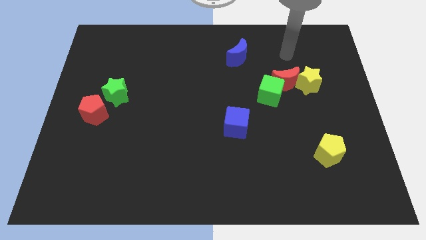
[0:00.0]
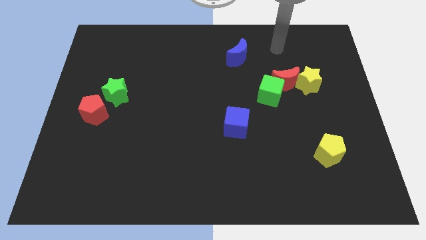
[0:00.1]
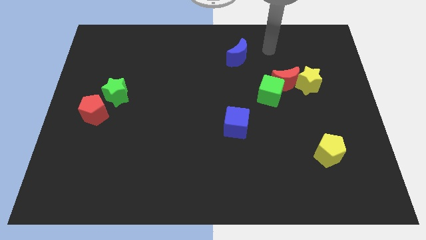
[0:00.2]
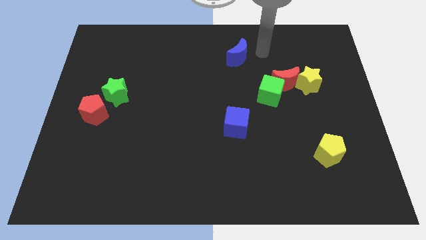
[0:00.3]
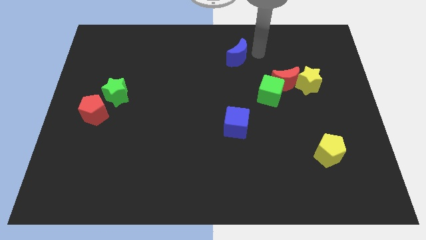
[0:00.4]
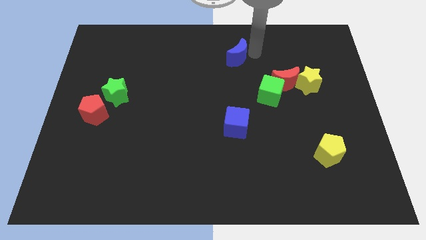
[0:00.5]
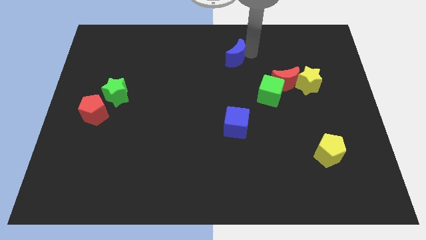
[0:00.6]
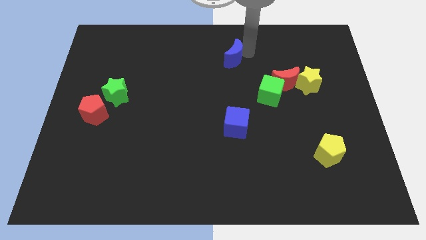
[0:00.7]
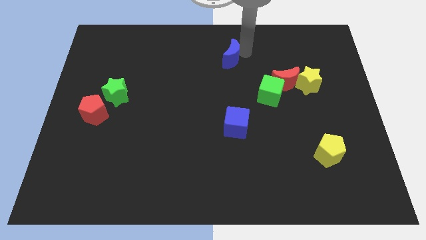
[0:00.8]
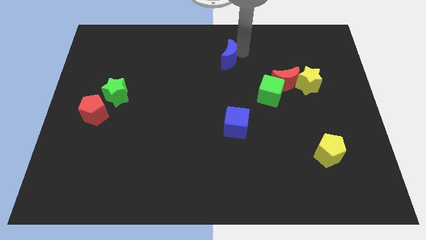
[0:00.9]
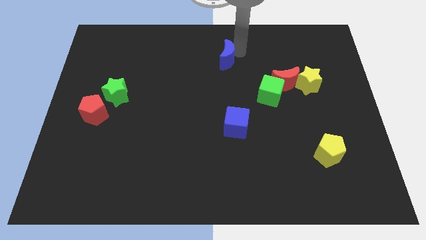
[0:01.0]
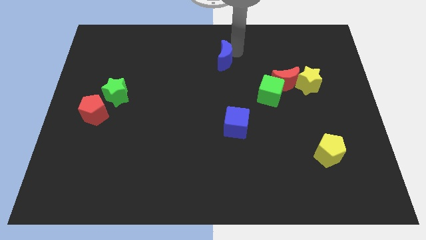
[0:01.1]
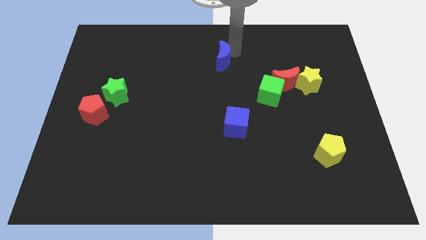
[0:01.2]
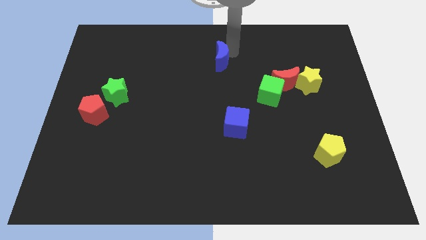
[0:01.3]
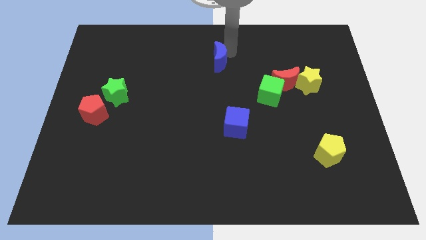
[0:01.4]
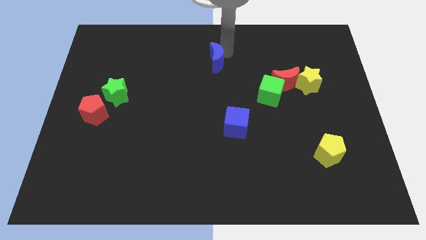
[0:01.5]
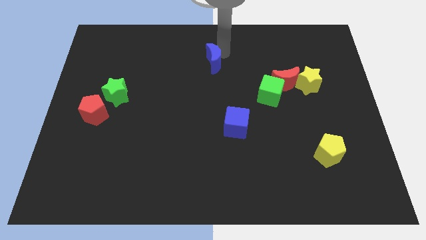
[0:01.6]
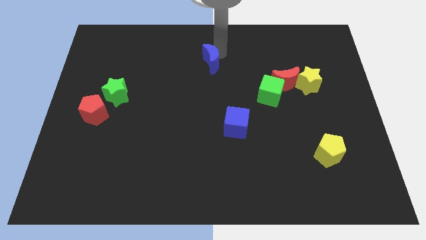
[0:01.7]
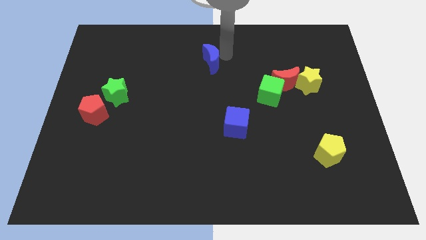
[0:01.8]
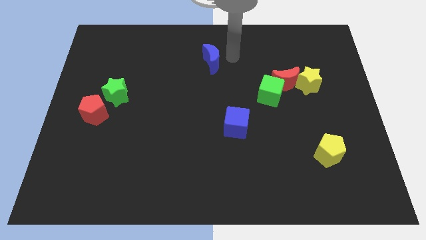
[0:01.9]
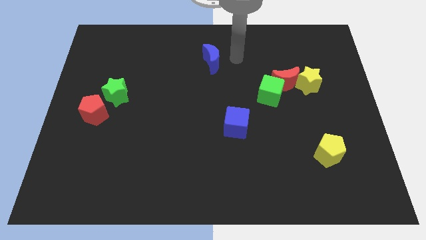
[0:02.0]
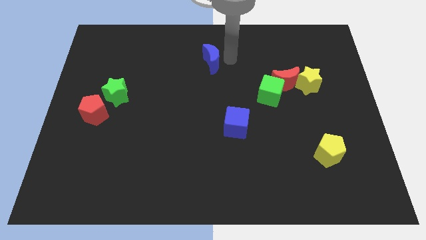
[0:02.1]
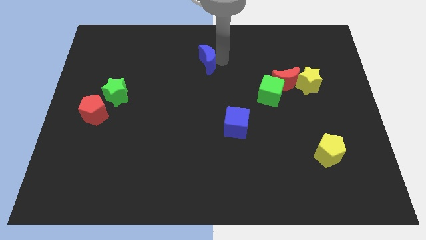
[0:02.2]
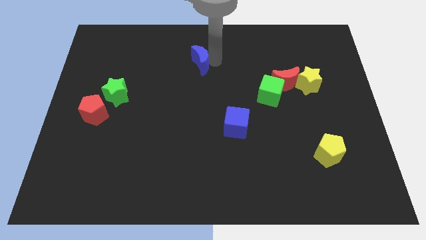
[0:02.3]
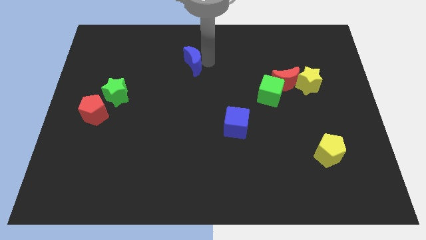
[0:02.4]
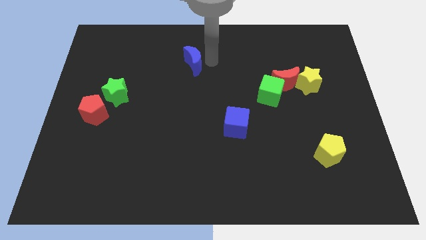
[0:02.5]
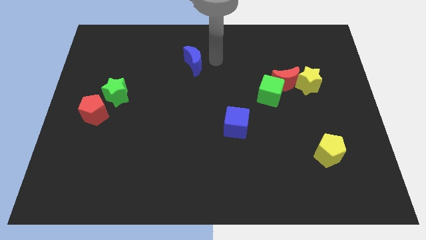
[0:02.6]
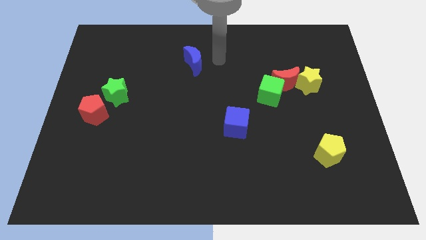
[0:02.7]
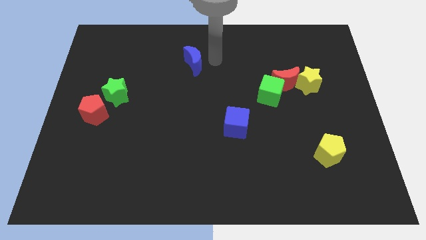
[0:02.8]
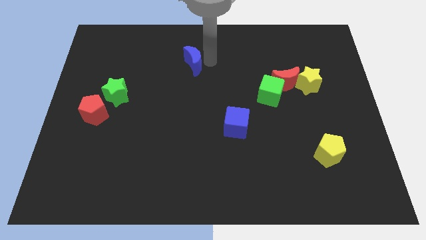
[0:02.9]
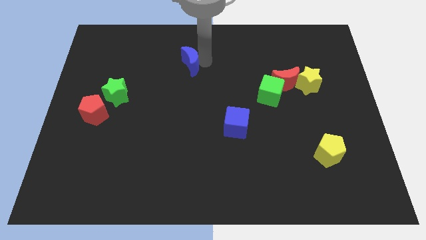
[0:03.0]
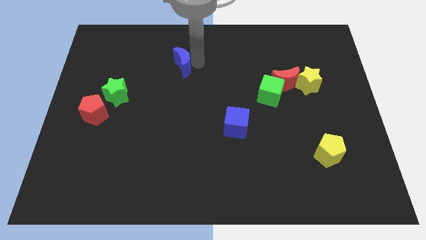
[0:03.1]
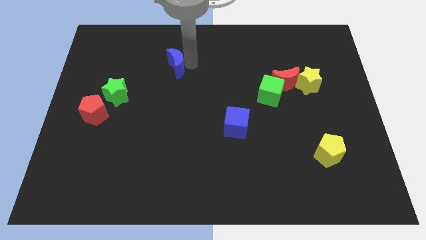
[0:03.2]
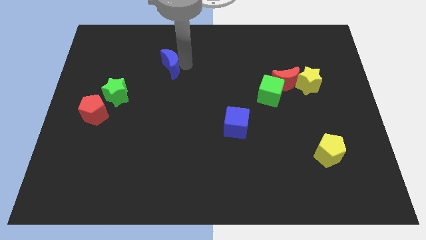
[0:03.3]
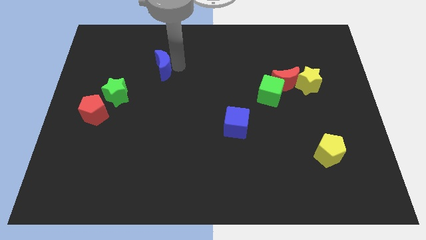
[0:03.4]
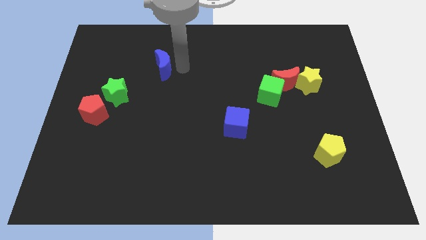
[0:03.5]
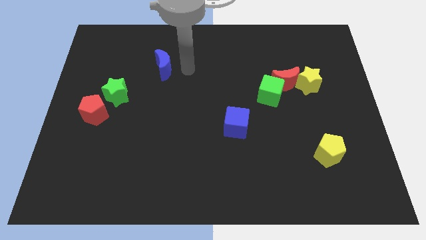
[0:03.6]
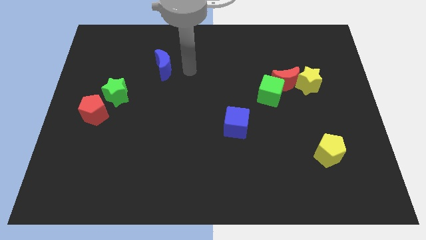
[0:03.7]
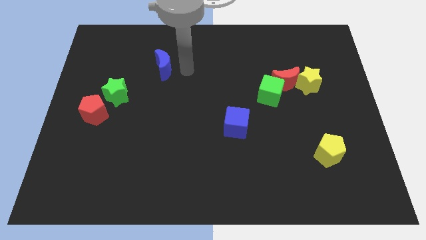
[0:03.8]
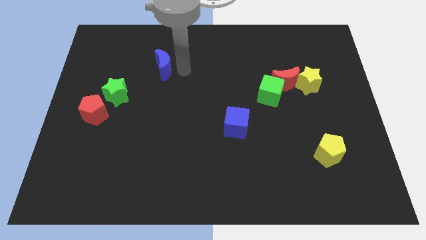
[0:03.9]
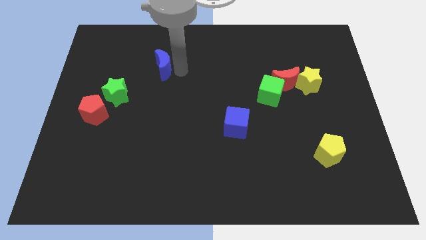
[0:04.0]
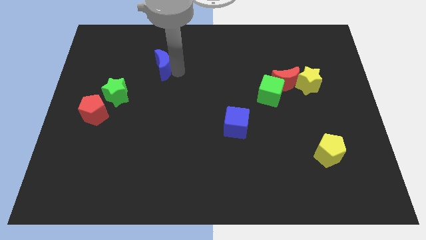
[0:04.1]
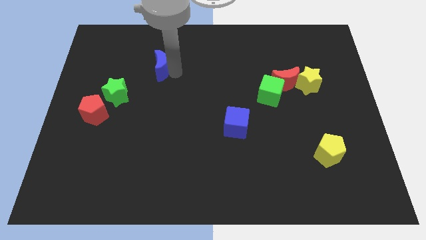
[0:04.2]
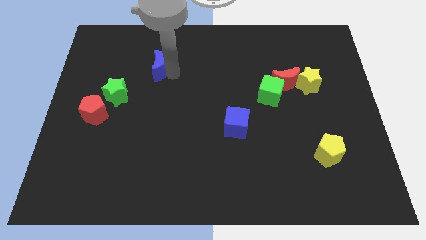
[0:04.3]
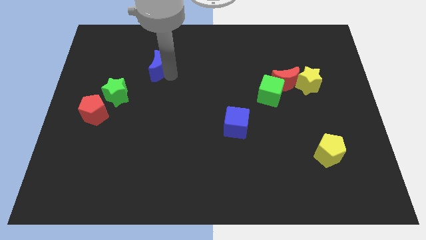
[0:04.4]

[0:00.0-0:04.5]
slide the blue moon to the left

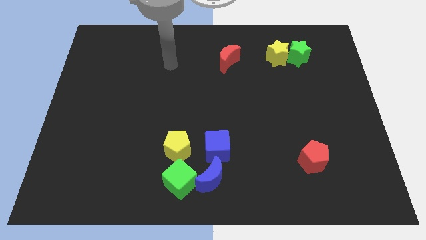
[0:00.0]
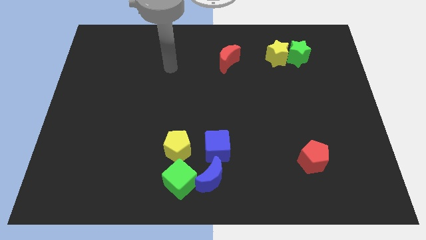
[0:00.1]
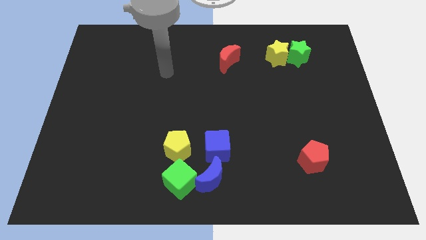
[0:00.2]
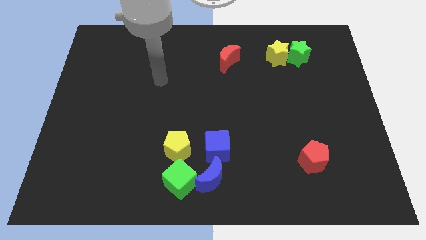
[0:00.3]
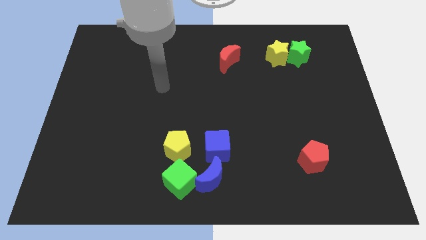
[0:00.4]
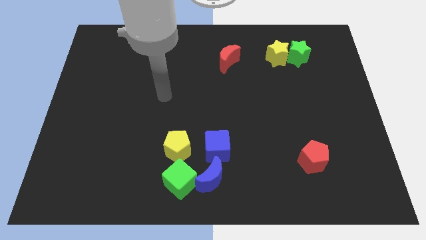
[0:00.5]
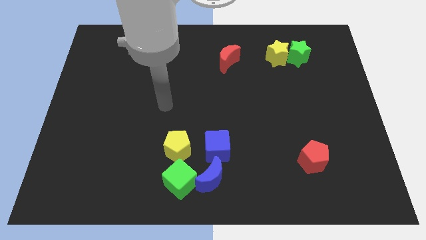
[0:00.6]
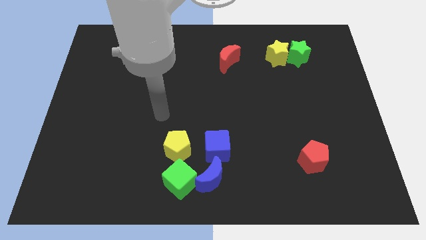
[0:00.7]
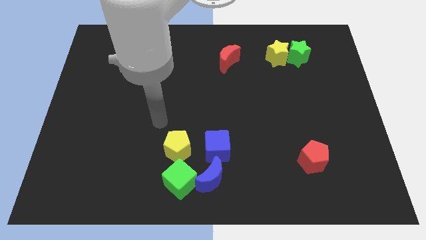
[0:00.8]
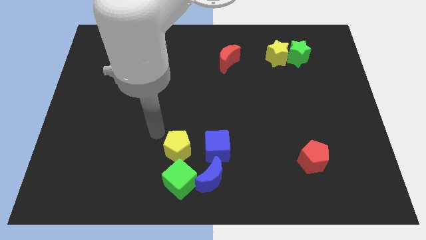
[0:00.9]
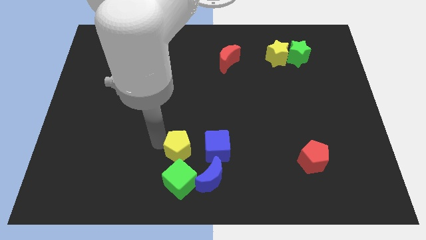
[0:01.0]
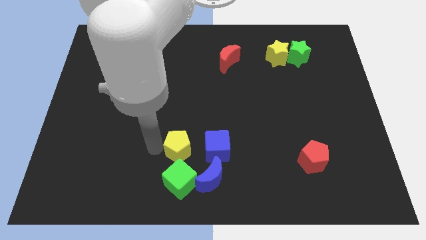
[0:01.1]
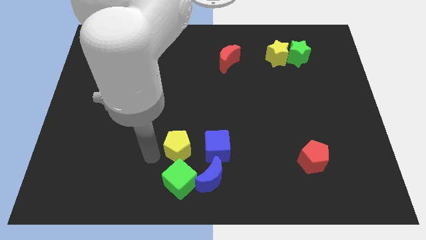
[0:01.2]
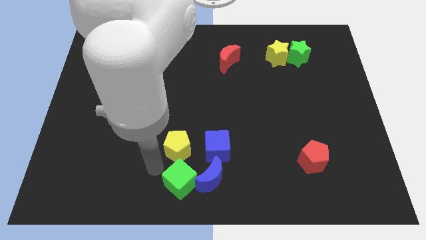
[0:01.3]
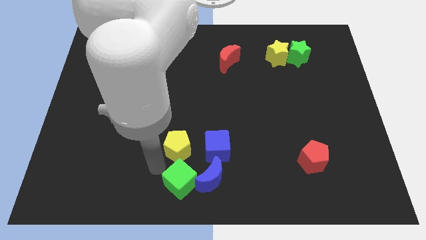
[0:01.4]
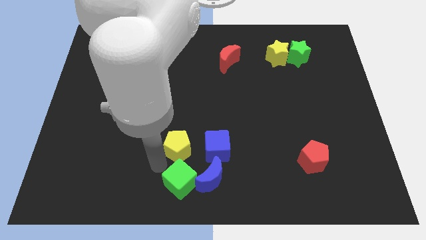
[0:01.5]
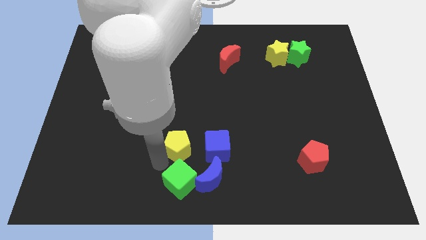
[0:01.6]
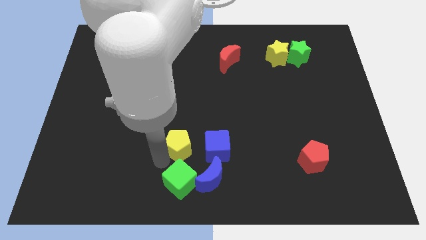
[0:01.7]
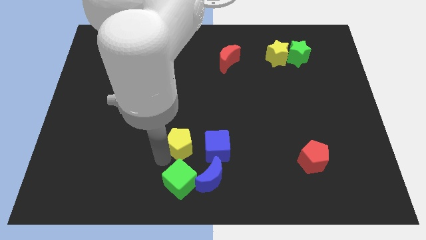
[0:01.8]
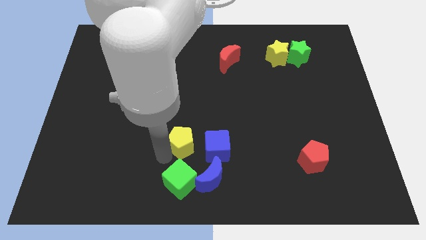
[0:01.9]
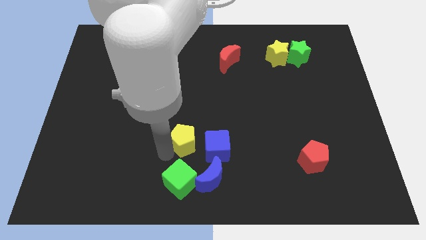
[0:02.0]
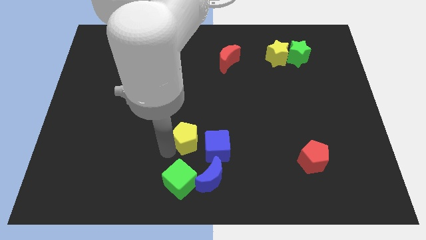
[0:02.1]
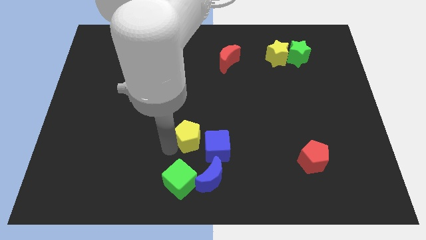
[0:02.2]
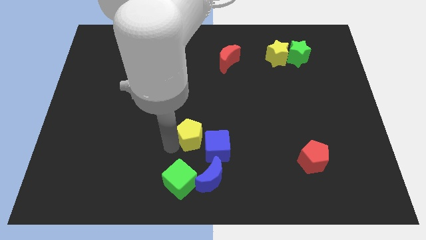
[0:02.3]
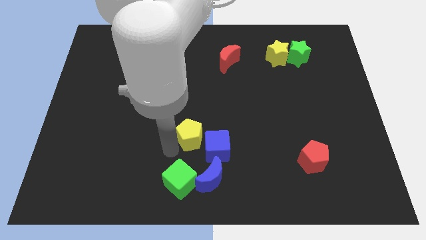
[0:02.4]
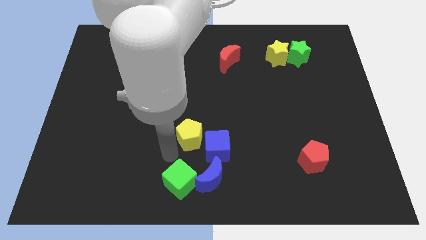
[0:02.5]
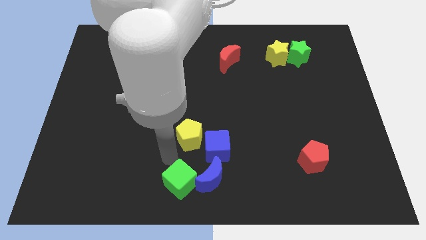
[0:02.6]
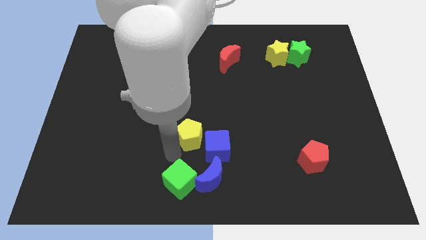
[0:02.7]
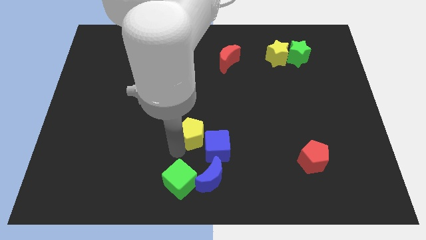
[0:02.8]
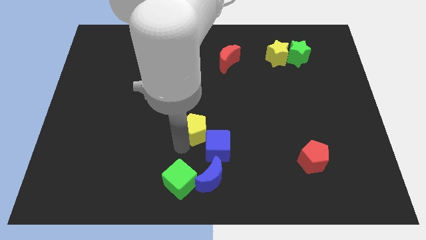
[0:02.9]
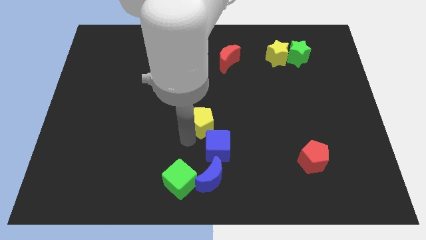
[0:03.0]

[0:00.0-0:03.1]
move the yellow pentagon up and to the right diagonally a little

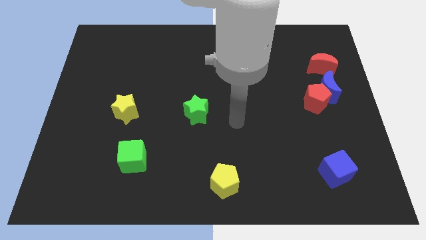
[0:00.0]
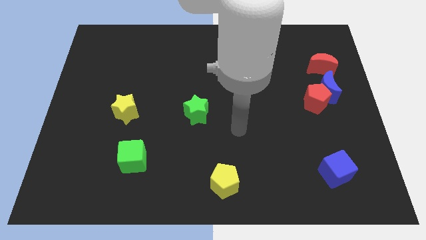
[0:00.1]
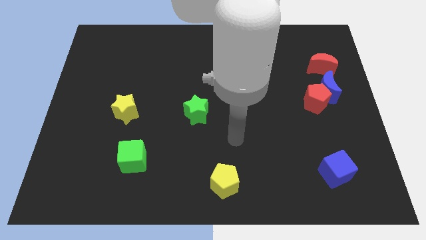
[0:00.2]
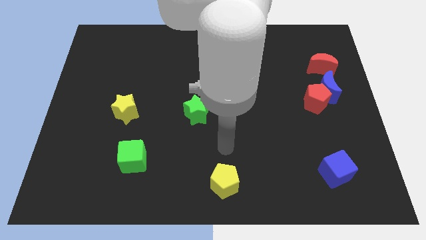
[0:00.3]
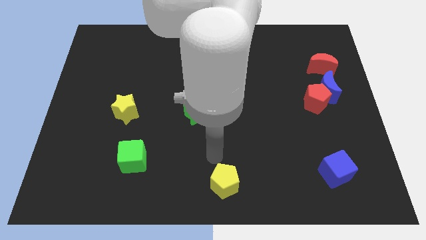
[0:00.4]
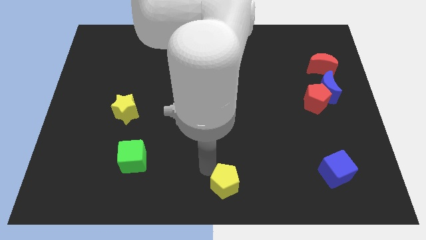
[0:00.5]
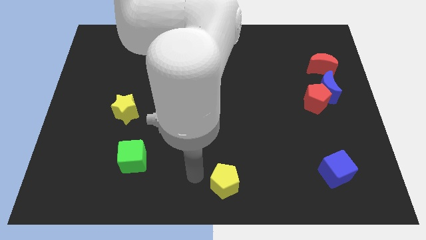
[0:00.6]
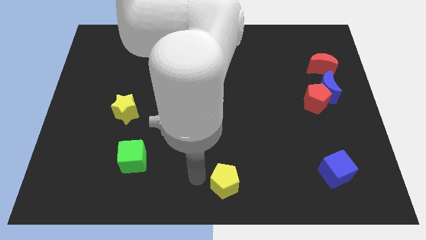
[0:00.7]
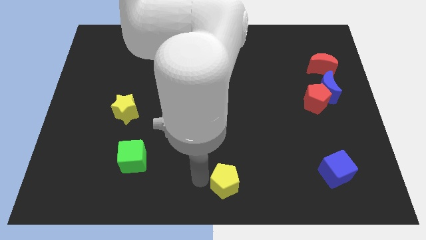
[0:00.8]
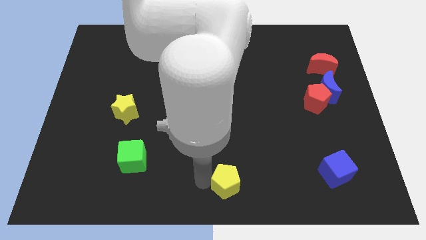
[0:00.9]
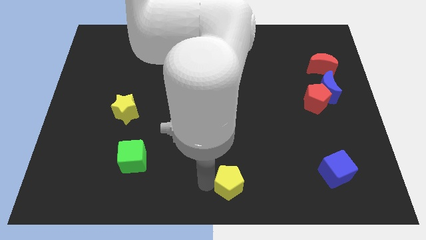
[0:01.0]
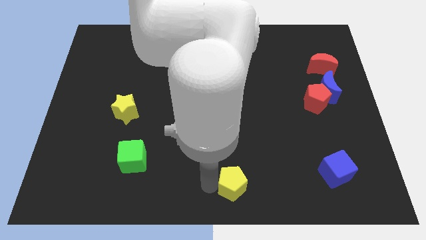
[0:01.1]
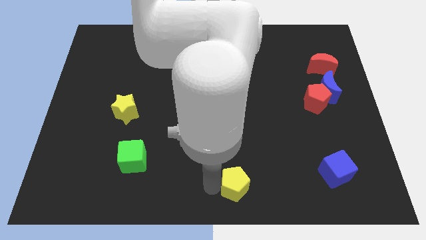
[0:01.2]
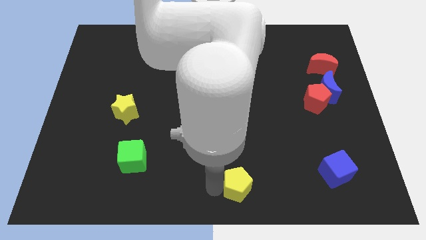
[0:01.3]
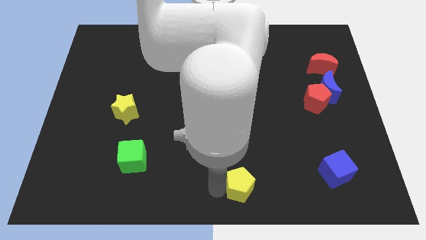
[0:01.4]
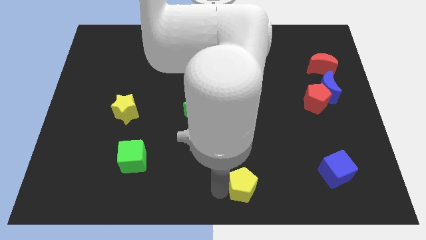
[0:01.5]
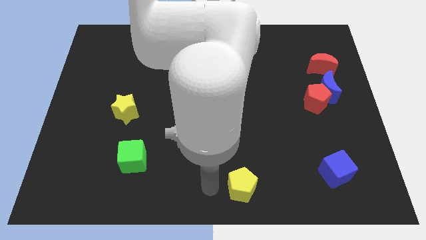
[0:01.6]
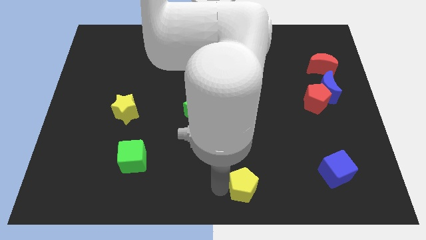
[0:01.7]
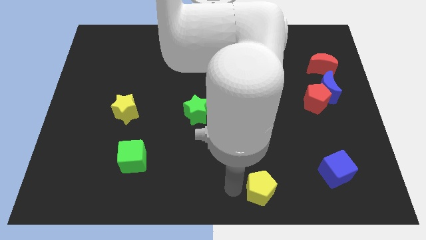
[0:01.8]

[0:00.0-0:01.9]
slightly slide the yellow pentagon to the right
